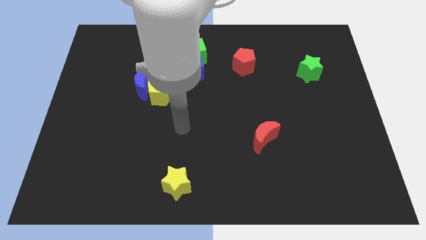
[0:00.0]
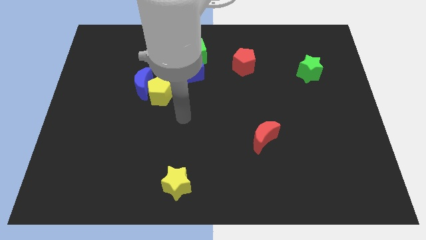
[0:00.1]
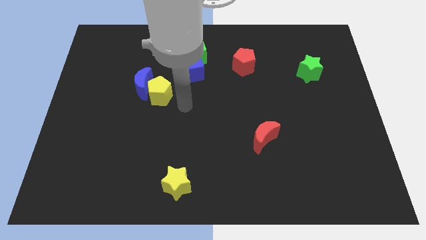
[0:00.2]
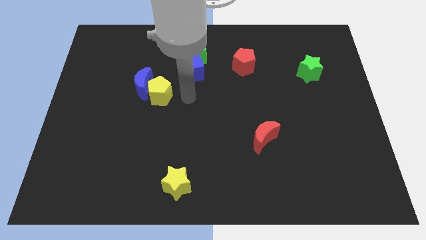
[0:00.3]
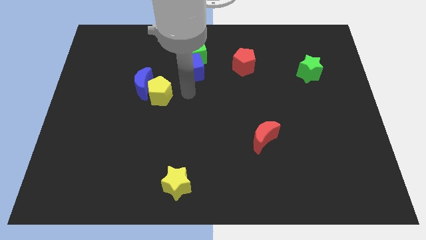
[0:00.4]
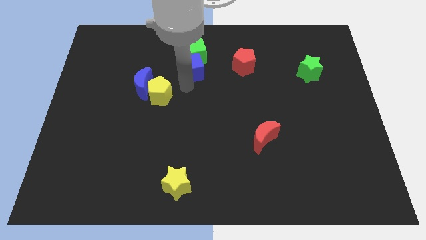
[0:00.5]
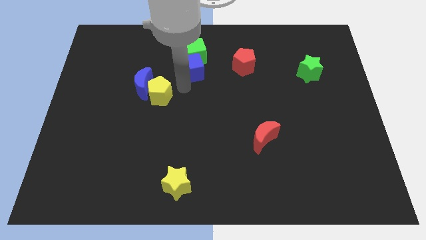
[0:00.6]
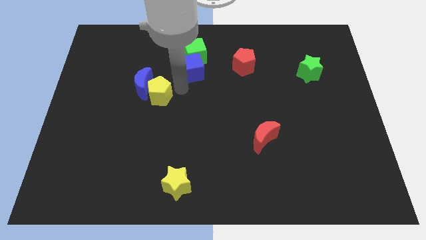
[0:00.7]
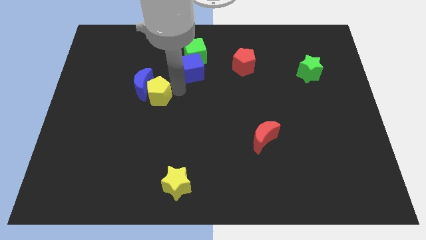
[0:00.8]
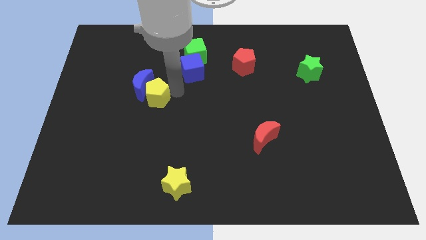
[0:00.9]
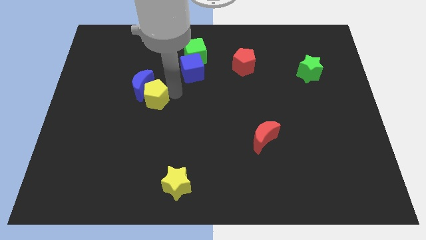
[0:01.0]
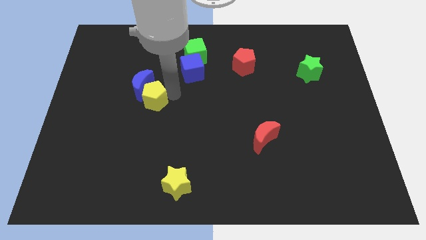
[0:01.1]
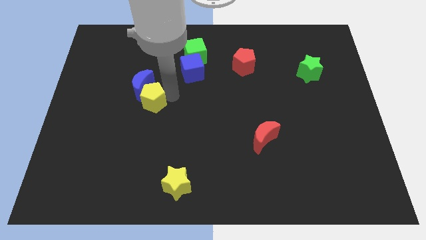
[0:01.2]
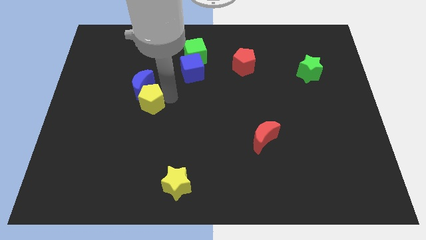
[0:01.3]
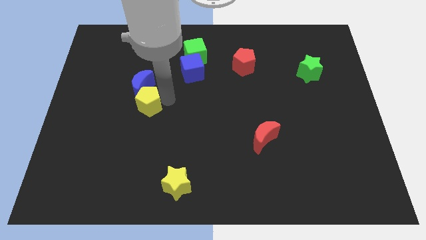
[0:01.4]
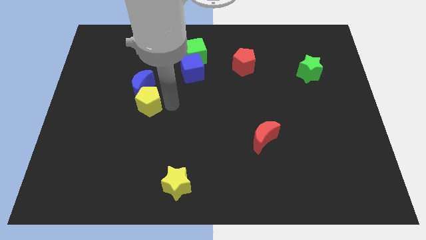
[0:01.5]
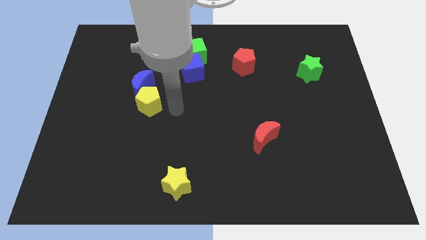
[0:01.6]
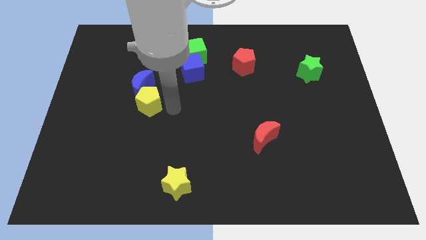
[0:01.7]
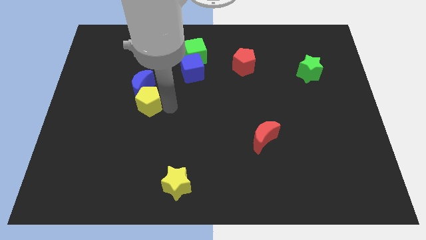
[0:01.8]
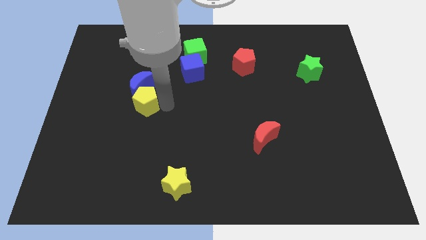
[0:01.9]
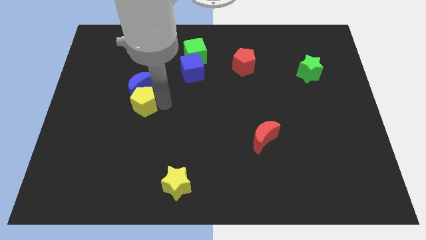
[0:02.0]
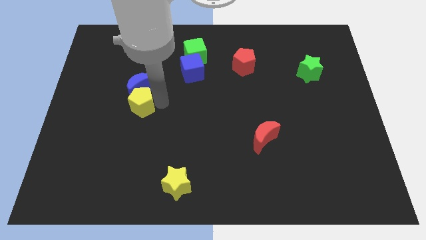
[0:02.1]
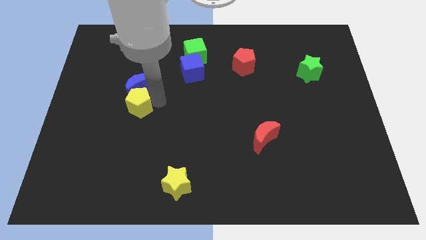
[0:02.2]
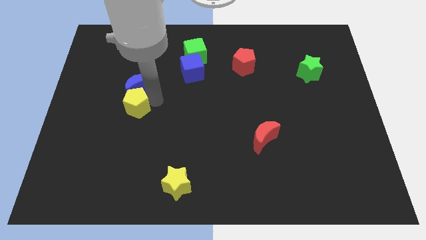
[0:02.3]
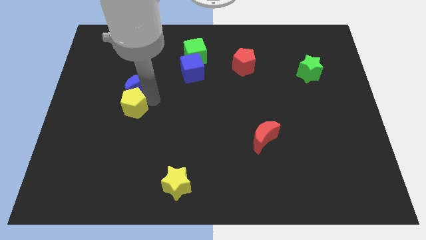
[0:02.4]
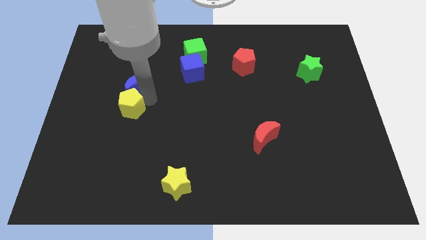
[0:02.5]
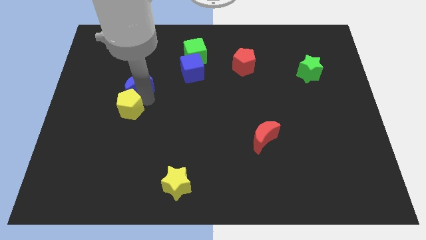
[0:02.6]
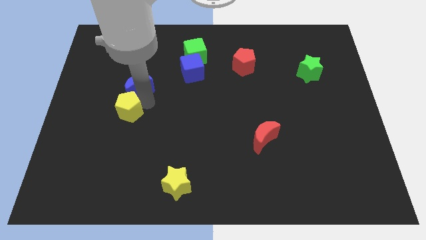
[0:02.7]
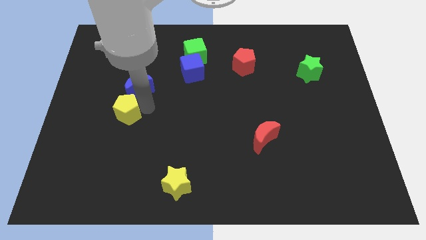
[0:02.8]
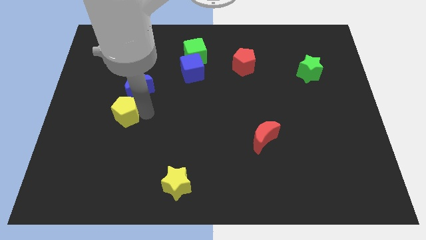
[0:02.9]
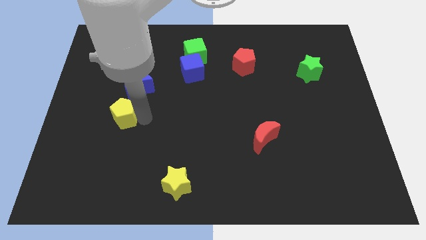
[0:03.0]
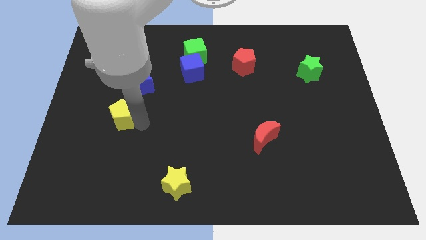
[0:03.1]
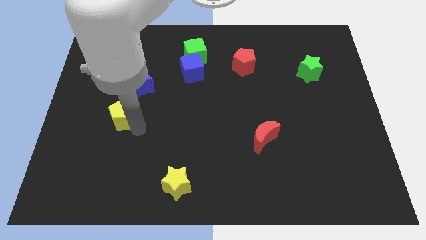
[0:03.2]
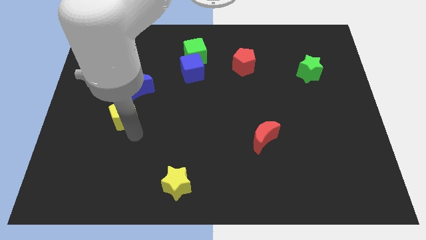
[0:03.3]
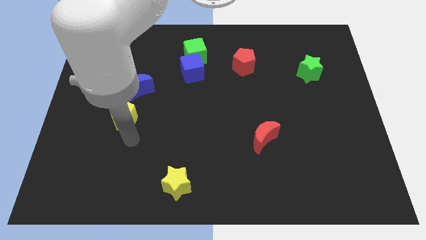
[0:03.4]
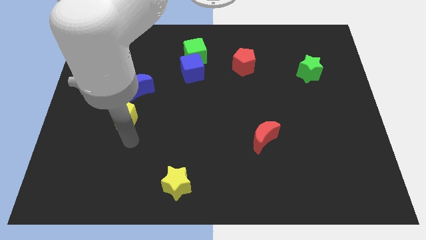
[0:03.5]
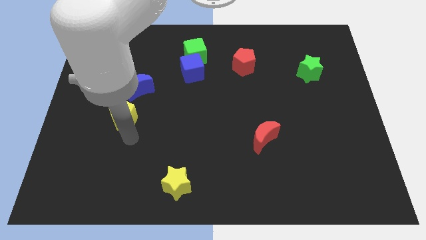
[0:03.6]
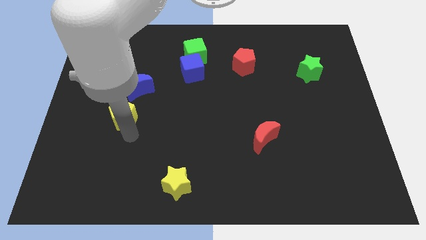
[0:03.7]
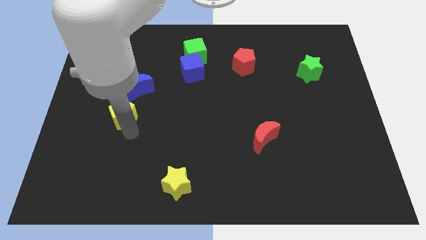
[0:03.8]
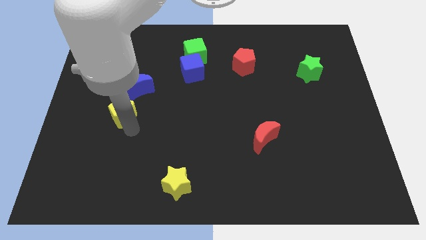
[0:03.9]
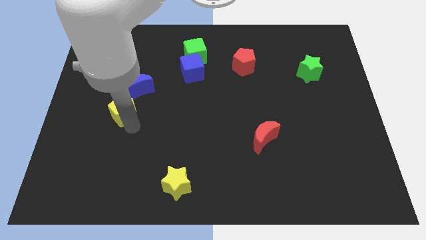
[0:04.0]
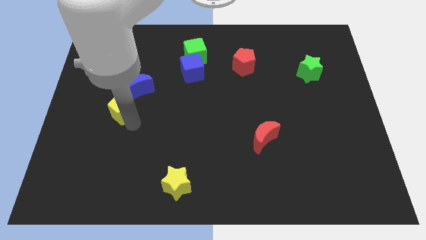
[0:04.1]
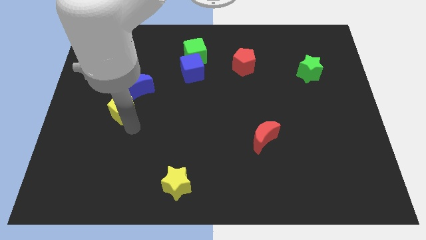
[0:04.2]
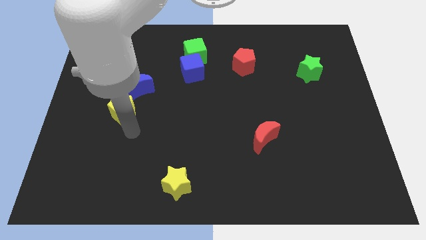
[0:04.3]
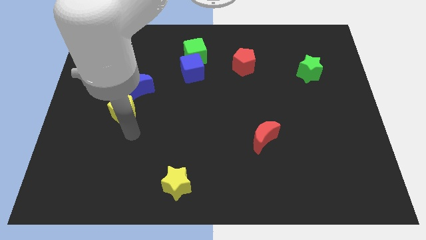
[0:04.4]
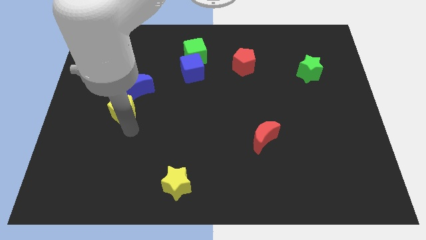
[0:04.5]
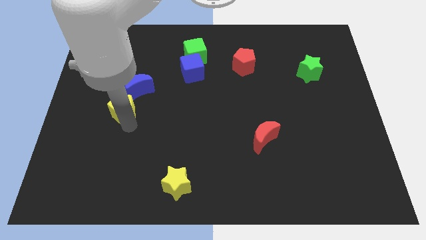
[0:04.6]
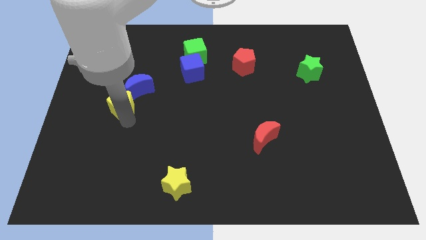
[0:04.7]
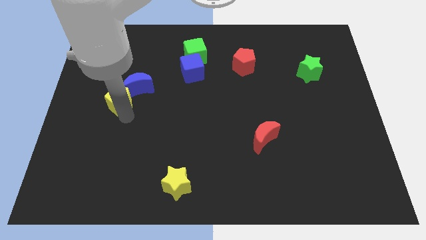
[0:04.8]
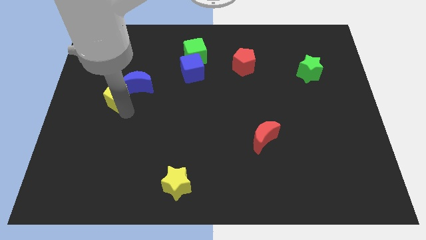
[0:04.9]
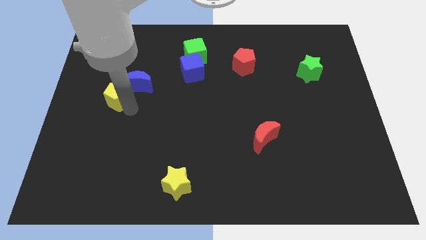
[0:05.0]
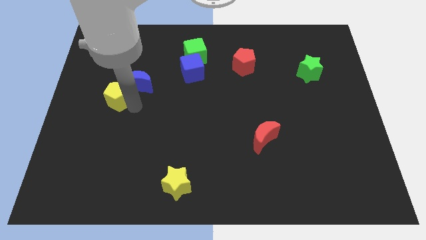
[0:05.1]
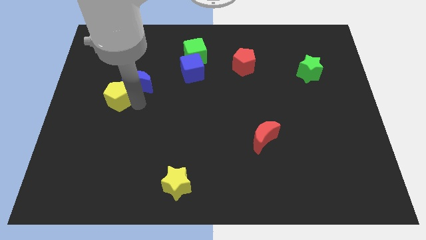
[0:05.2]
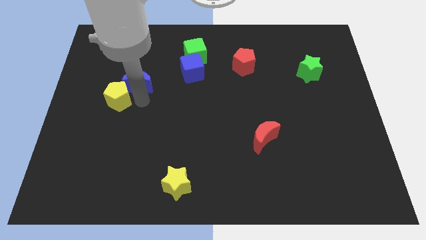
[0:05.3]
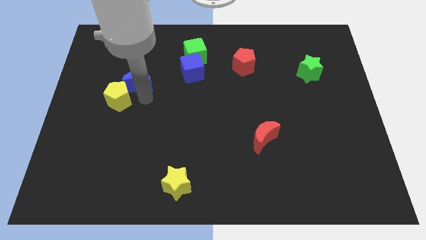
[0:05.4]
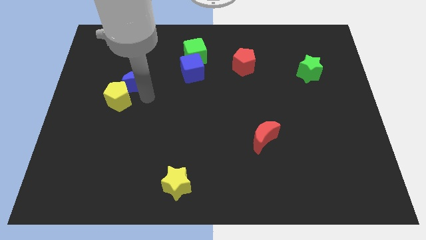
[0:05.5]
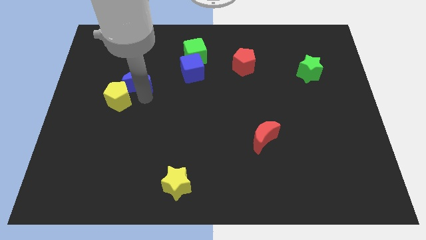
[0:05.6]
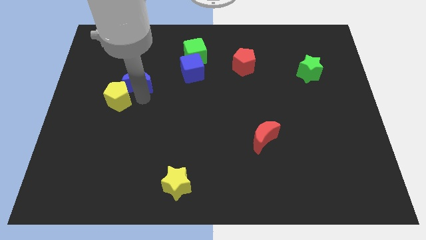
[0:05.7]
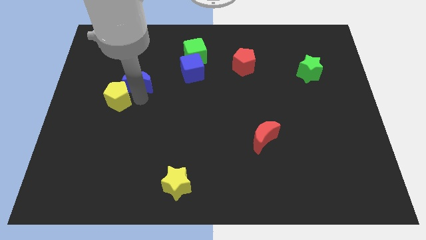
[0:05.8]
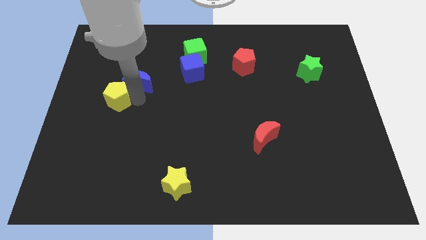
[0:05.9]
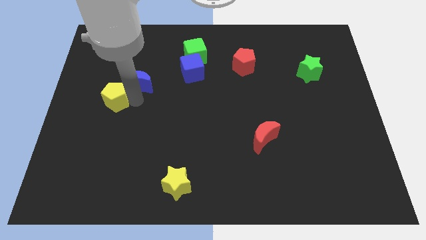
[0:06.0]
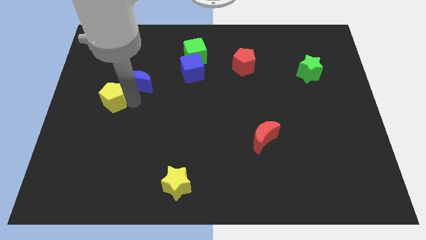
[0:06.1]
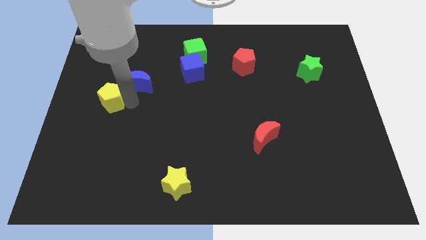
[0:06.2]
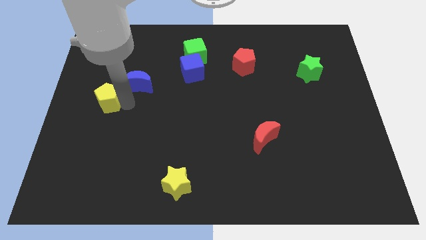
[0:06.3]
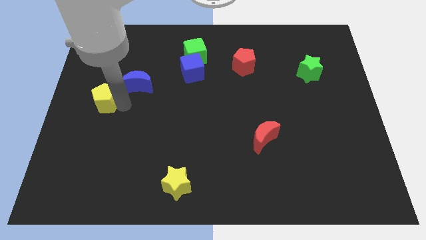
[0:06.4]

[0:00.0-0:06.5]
push the yellow pentagon to the left side of the board

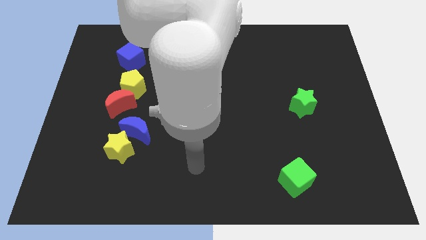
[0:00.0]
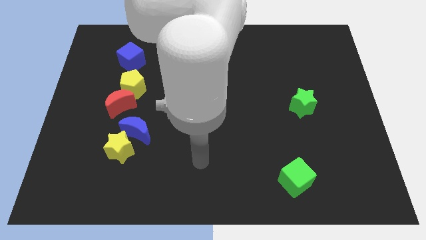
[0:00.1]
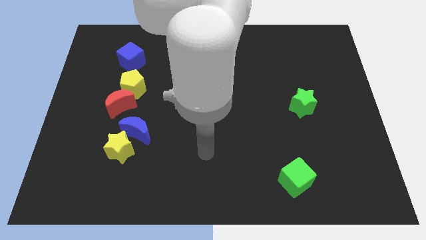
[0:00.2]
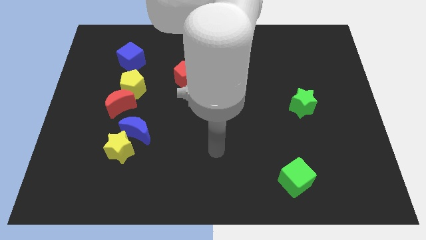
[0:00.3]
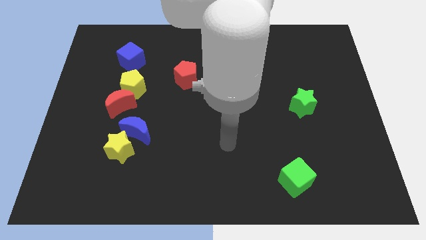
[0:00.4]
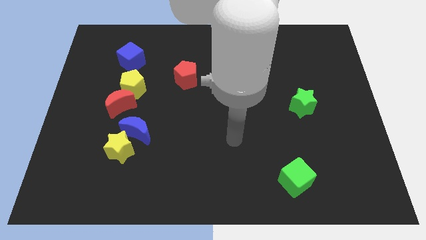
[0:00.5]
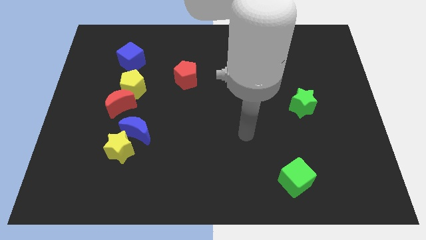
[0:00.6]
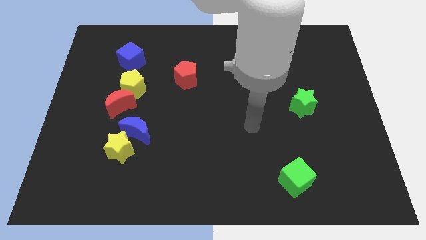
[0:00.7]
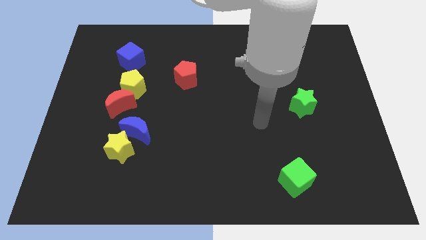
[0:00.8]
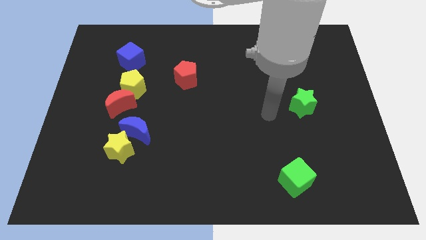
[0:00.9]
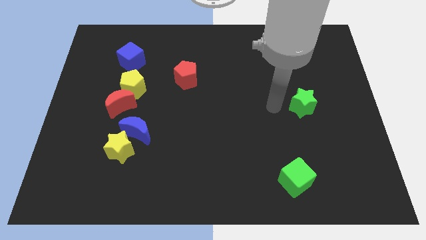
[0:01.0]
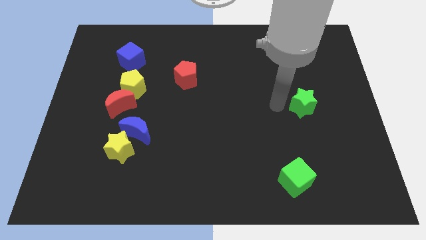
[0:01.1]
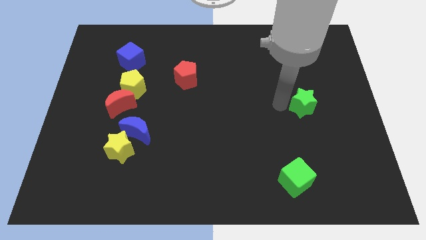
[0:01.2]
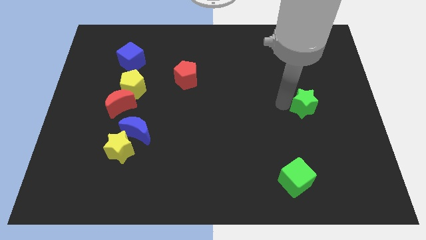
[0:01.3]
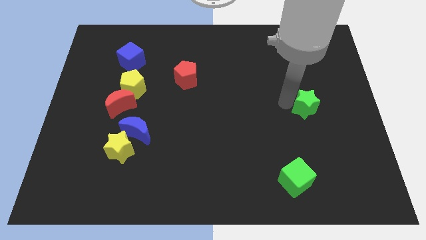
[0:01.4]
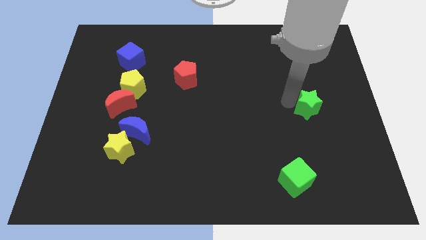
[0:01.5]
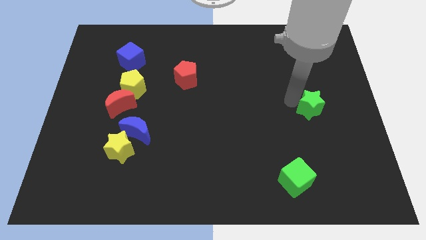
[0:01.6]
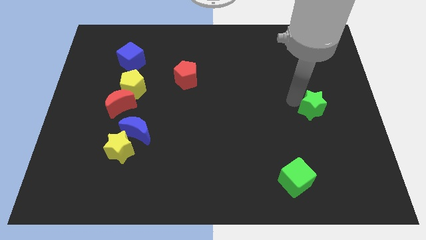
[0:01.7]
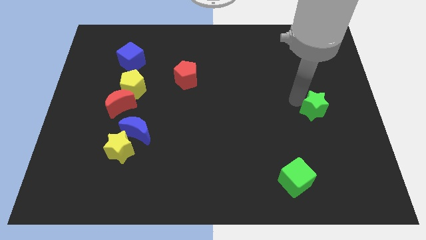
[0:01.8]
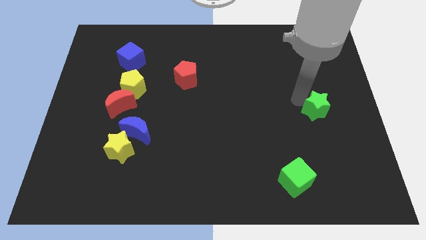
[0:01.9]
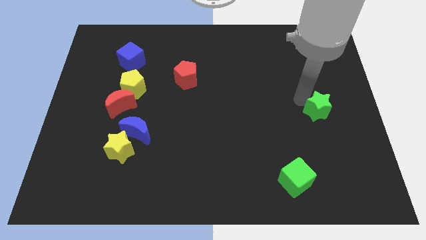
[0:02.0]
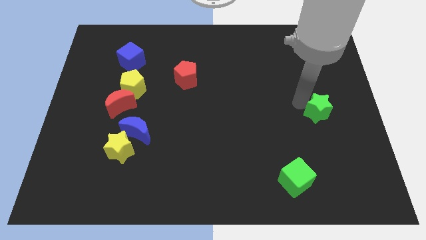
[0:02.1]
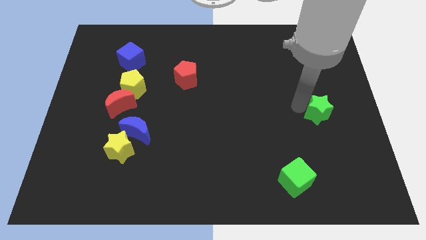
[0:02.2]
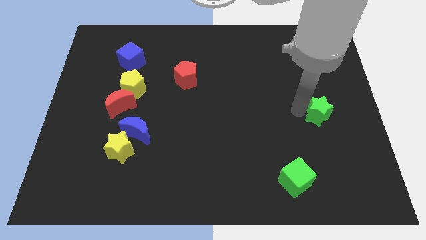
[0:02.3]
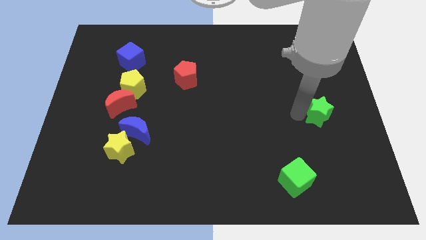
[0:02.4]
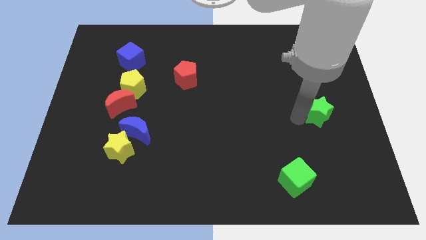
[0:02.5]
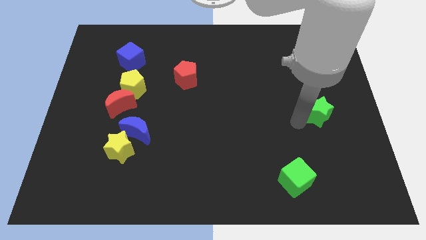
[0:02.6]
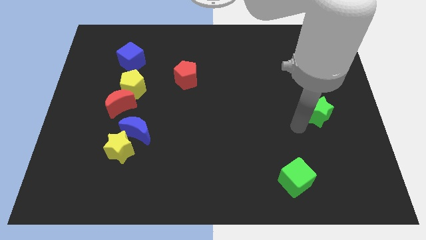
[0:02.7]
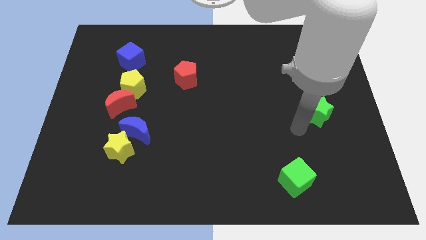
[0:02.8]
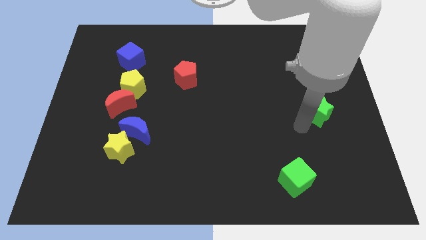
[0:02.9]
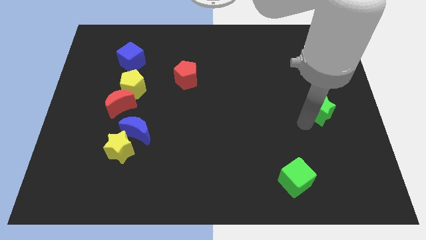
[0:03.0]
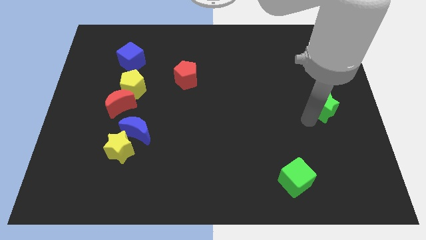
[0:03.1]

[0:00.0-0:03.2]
move the green star to the center right
